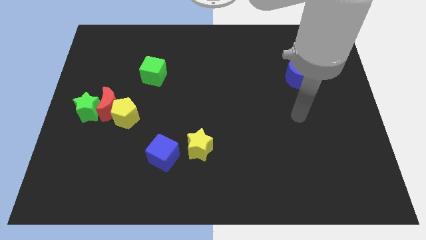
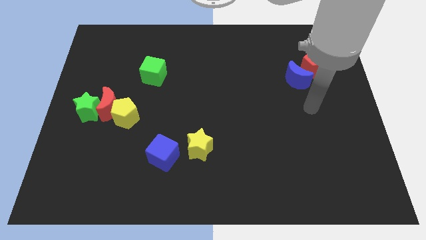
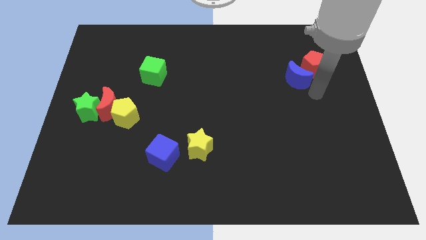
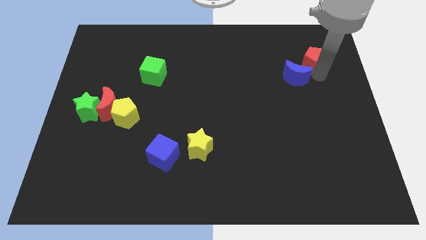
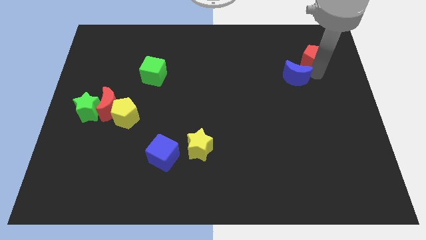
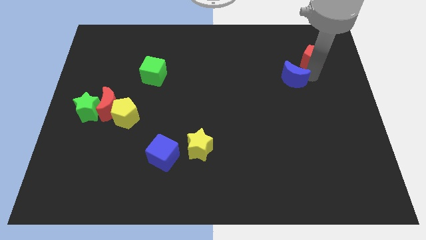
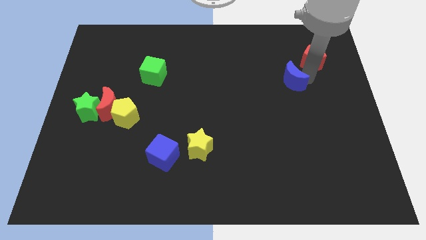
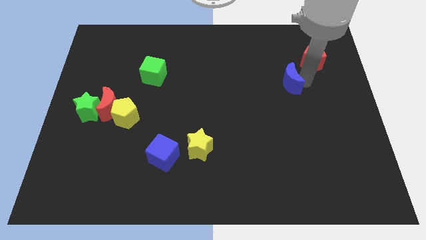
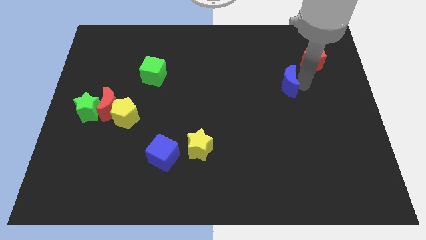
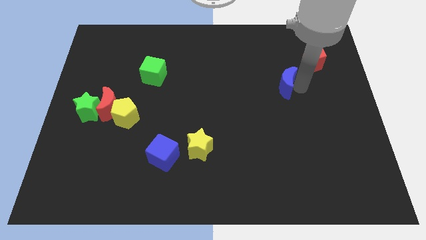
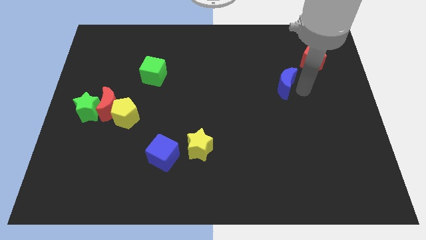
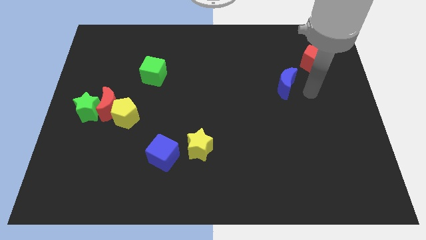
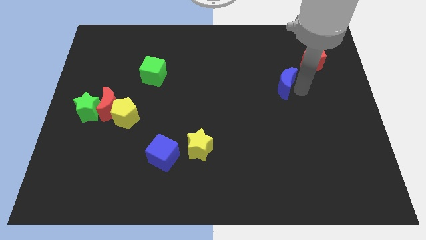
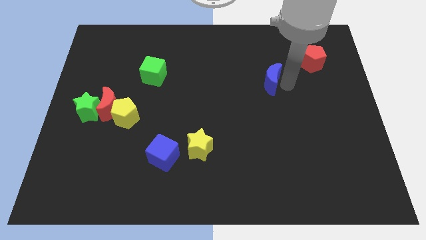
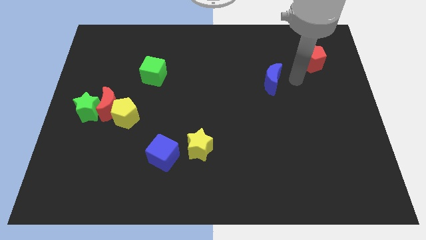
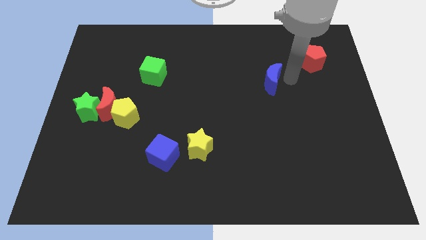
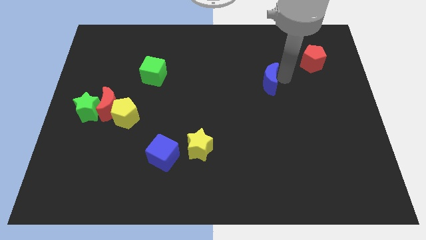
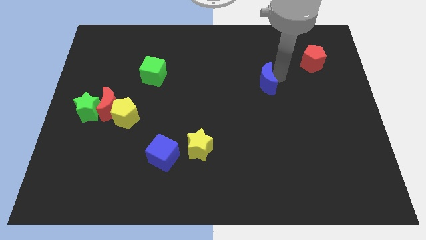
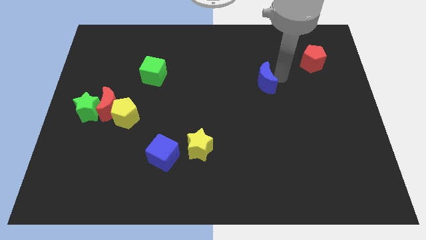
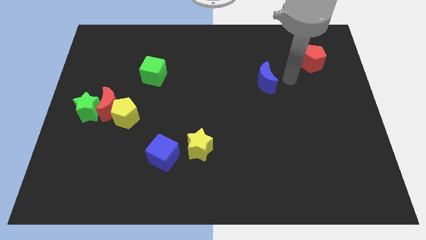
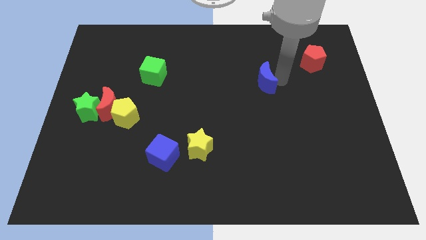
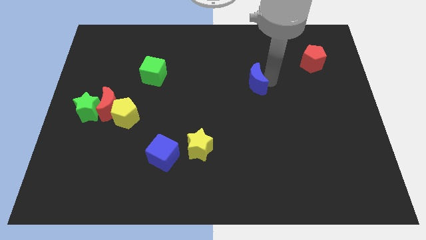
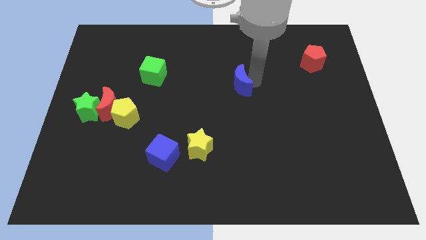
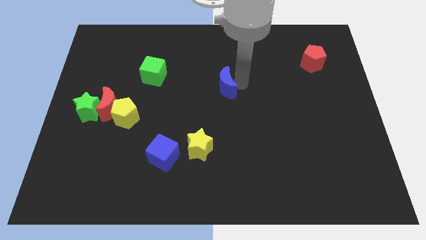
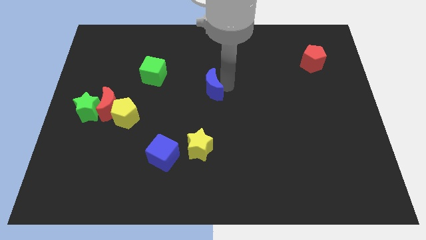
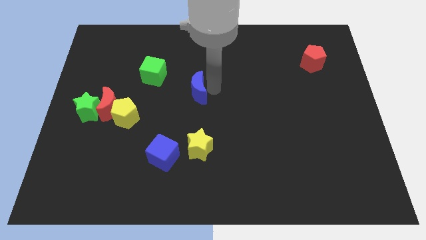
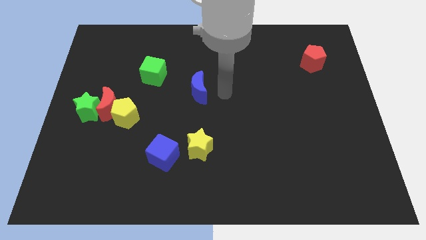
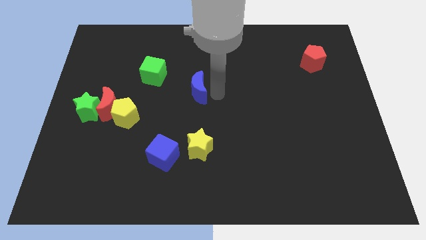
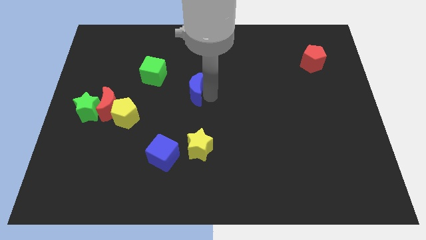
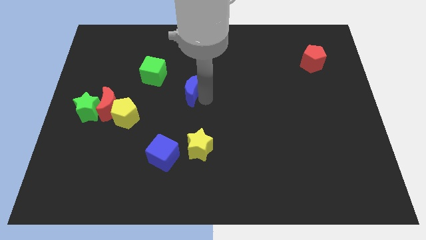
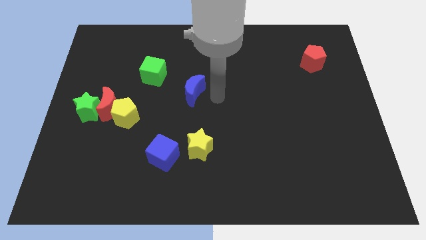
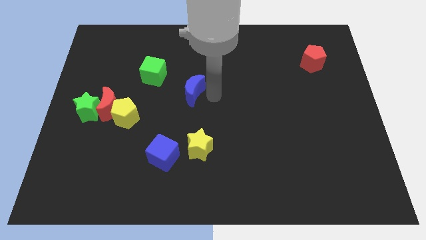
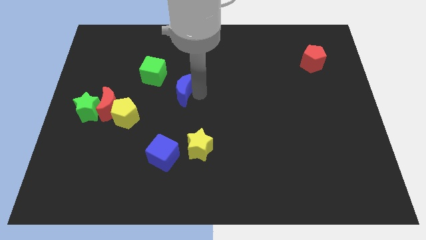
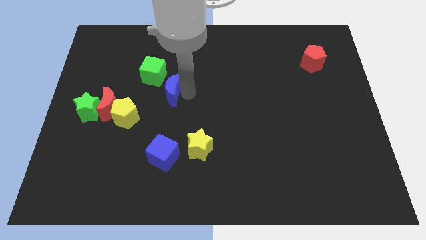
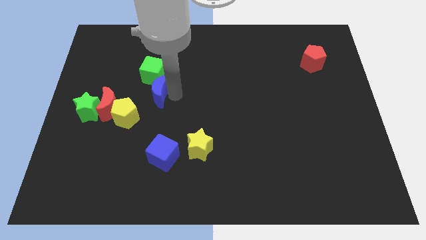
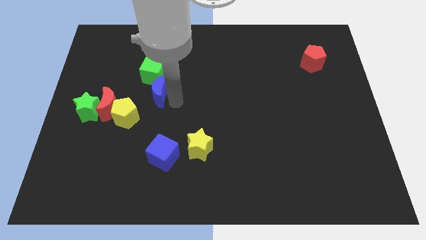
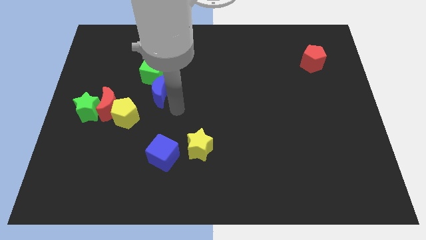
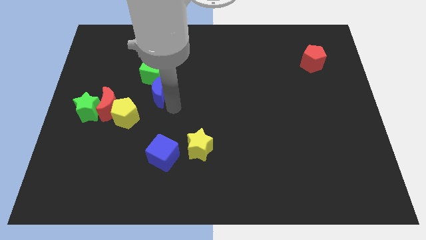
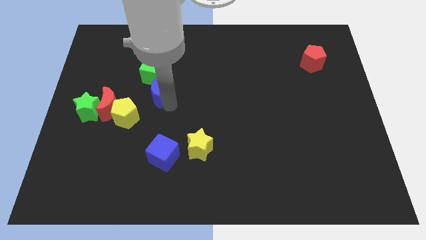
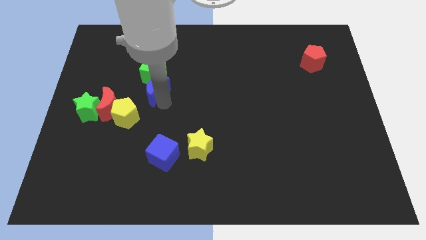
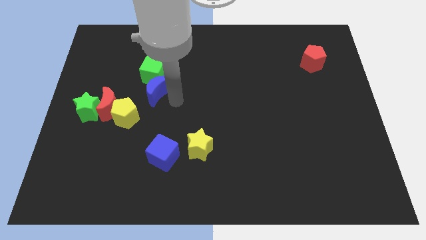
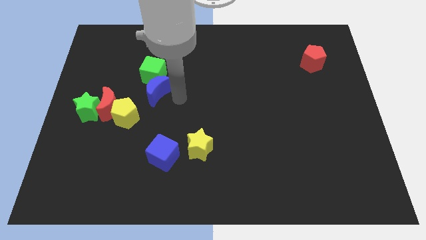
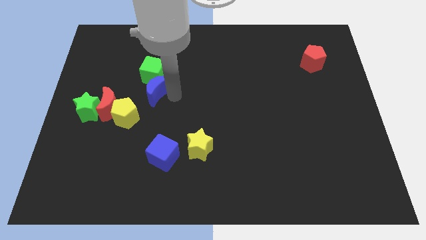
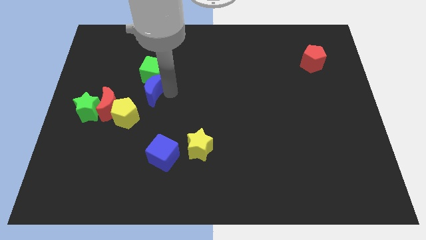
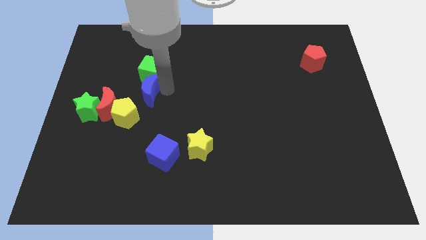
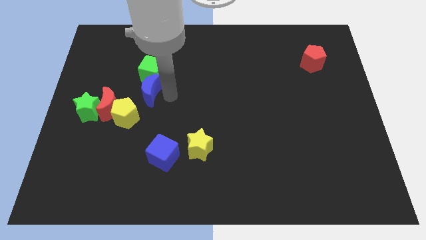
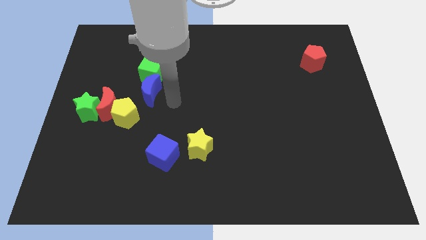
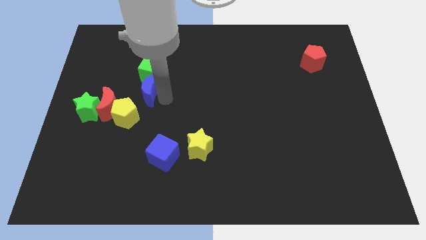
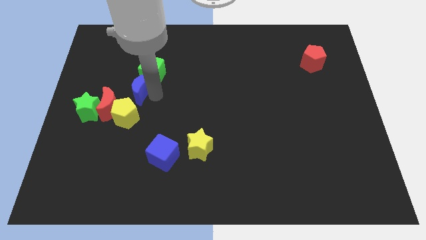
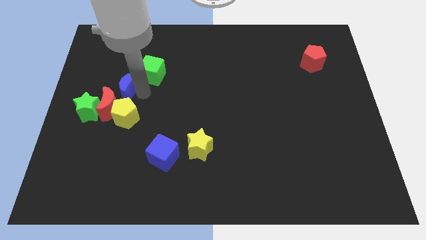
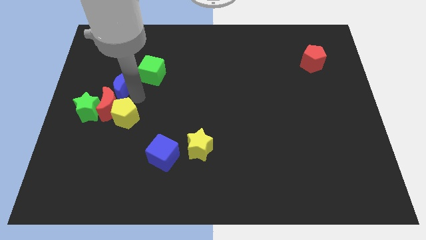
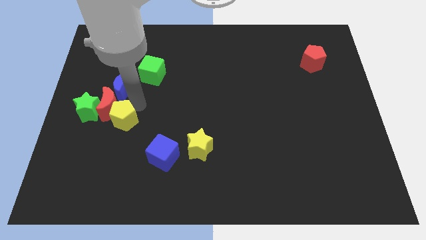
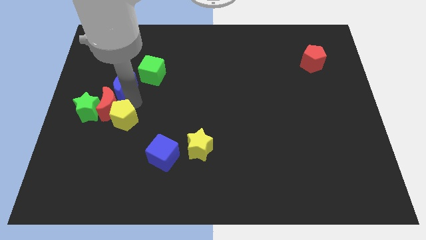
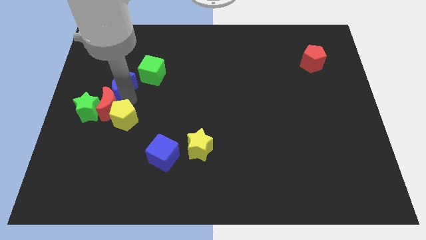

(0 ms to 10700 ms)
move the blue moon to the left side of the green cube

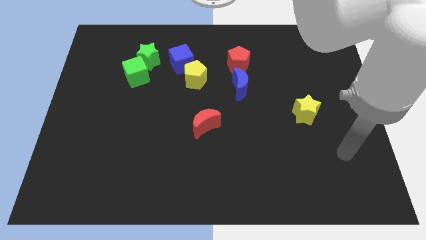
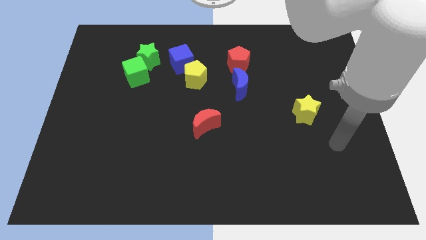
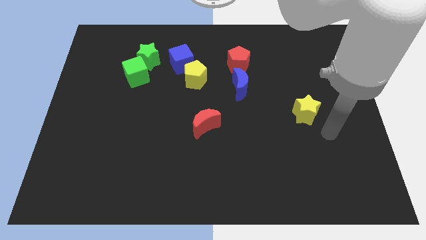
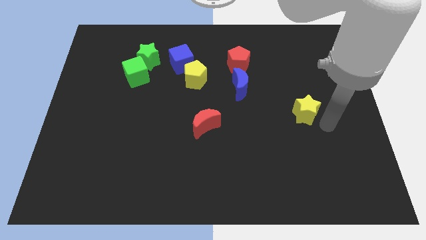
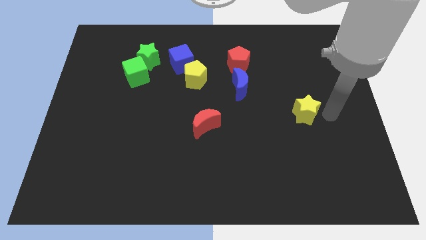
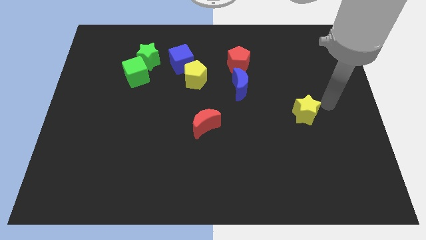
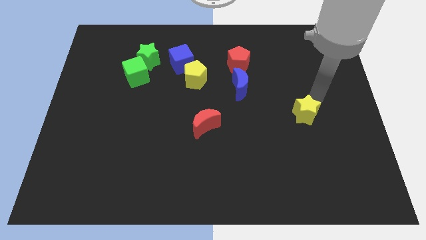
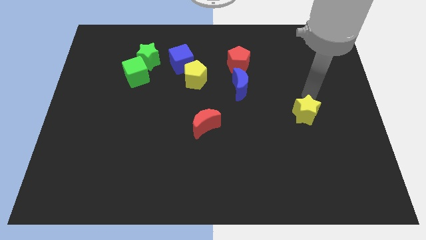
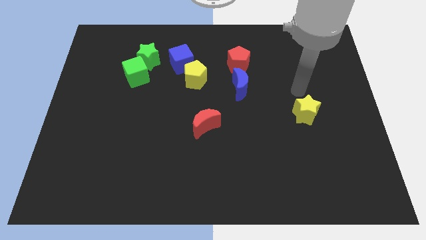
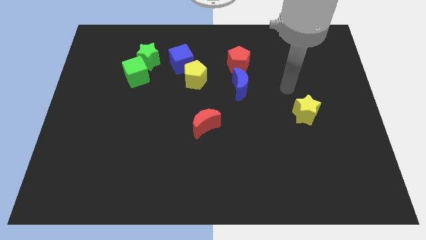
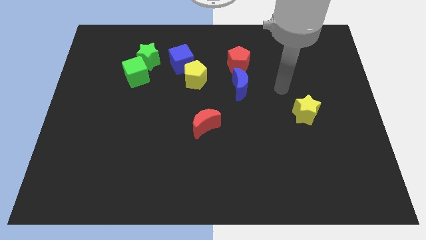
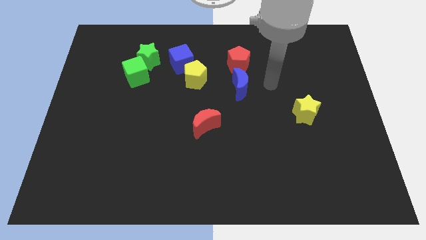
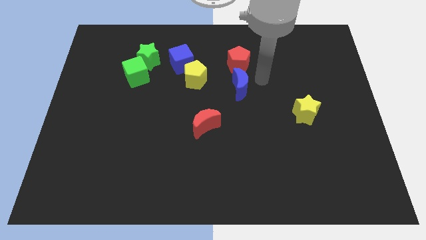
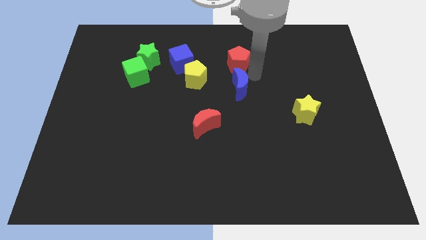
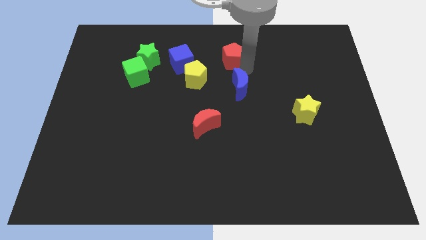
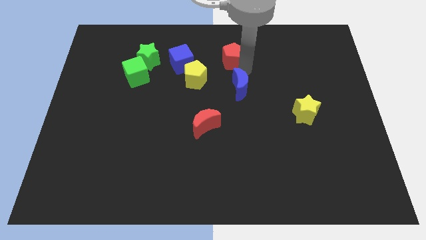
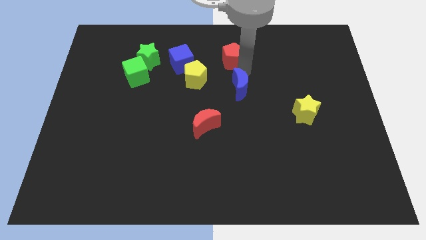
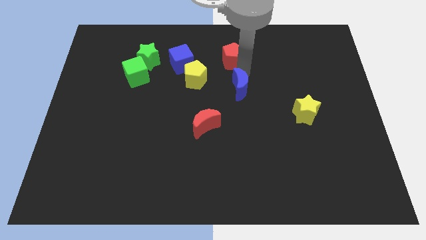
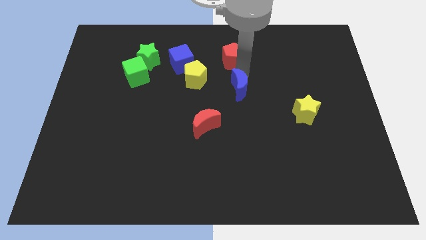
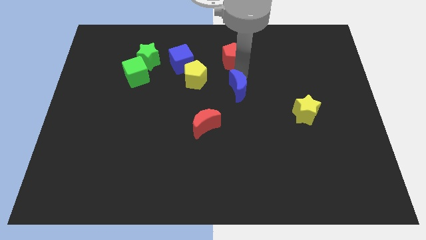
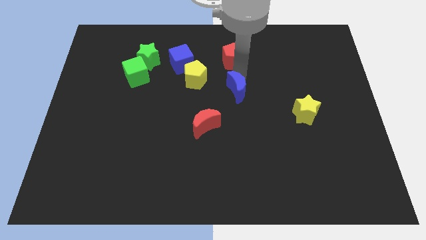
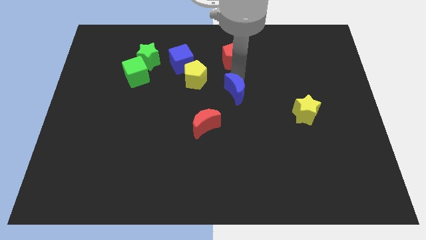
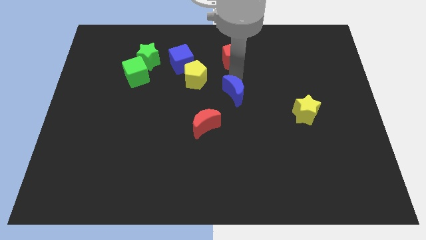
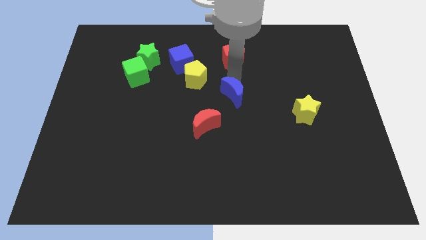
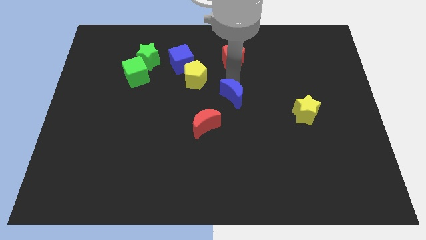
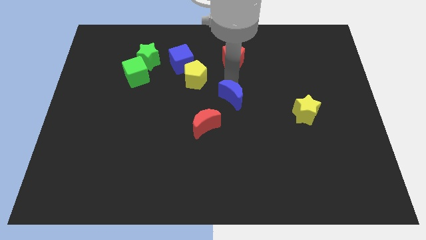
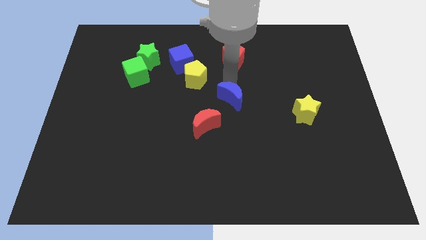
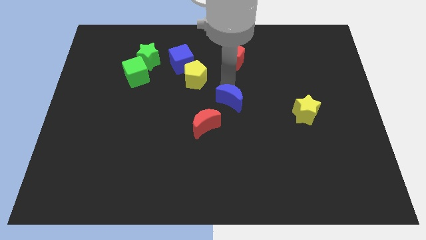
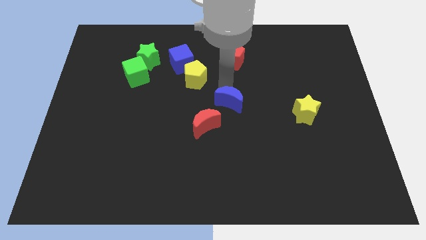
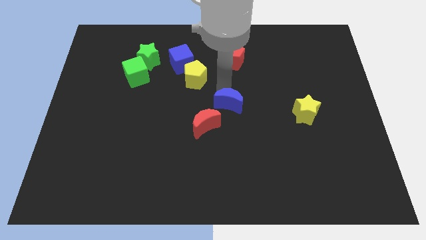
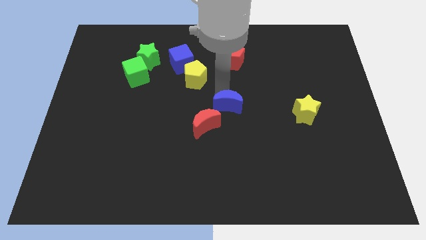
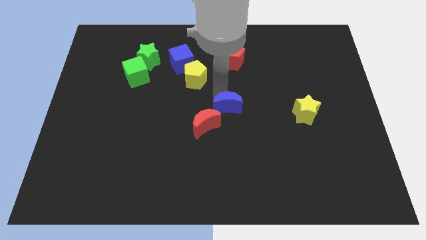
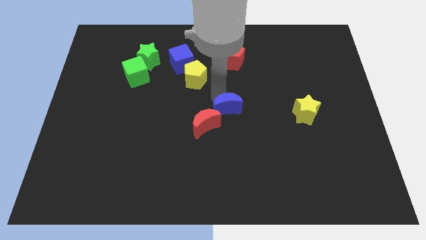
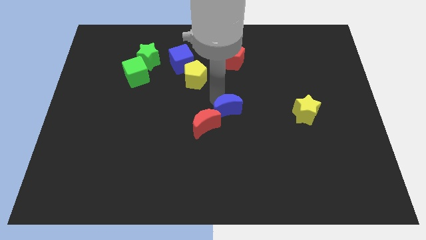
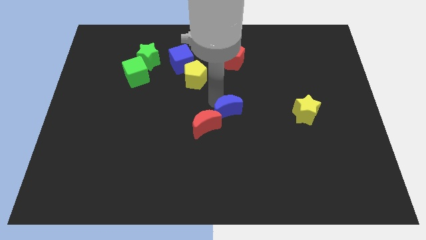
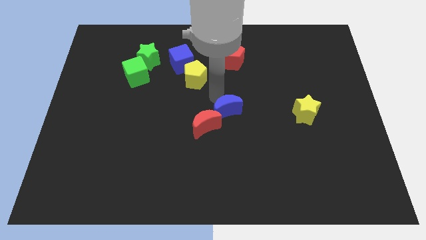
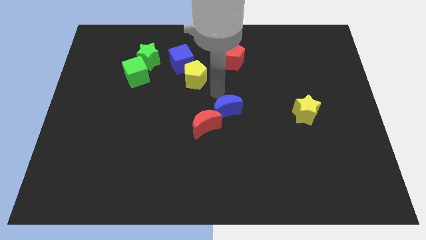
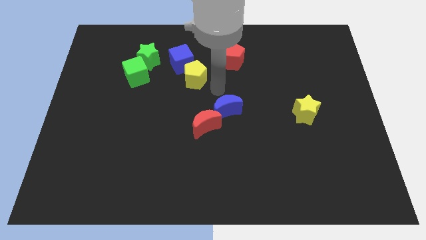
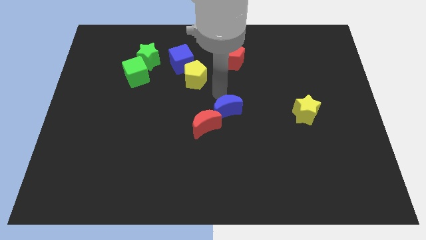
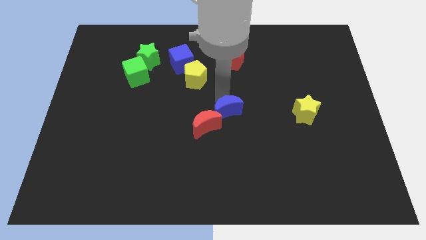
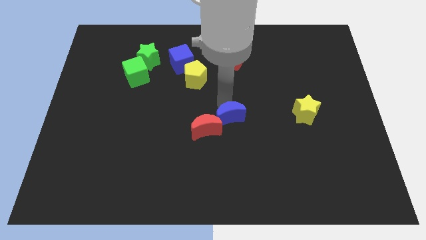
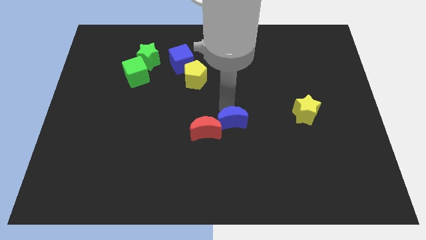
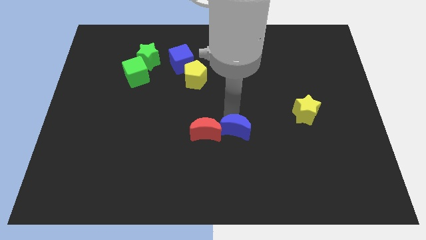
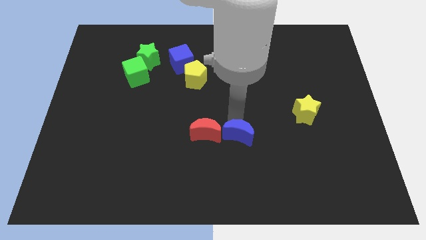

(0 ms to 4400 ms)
slide the blue moon diagonally down and to the right of the red moon
